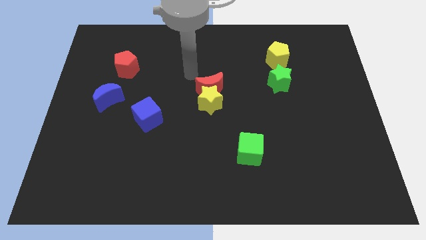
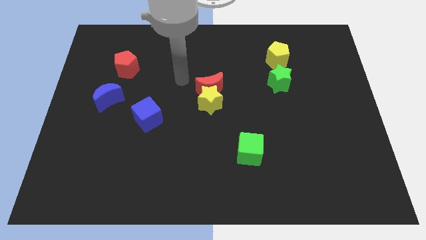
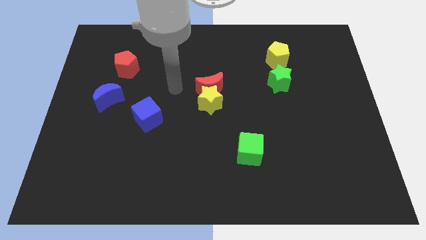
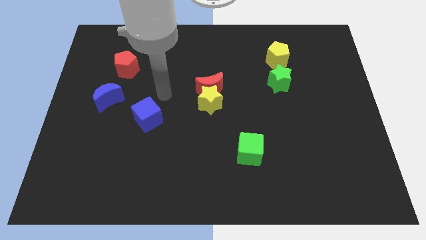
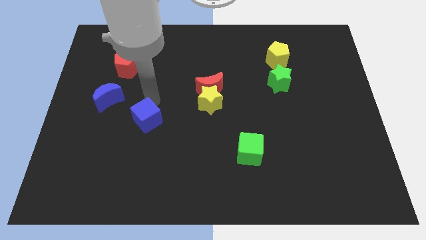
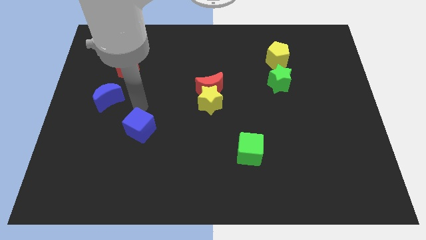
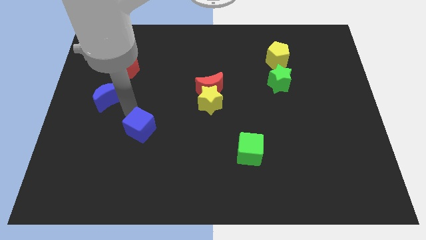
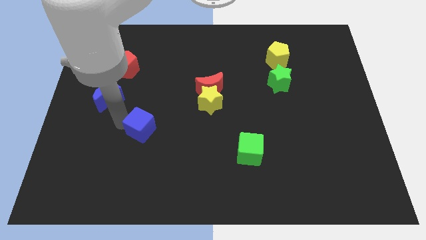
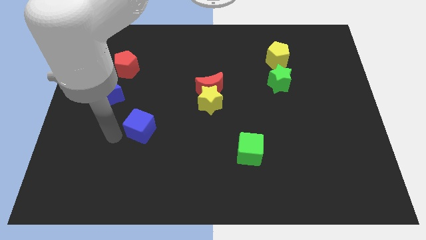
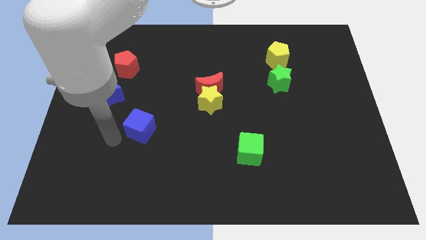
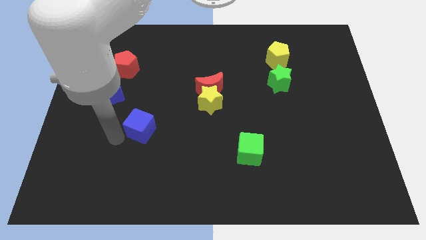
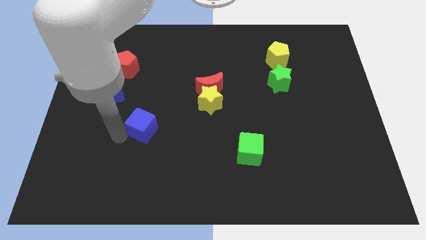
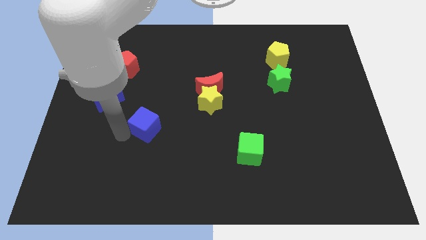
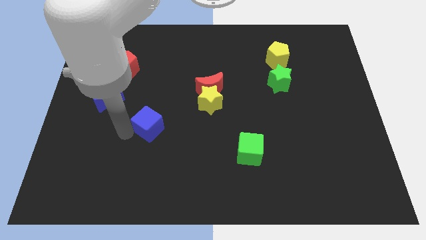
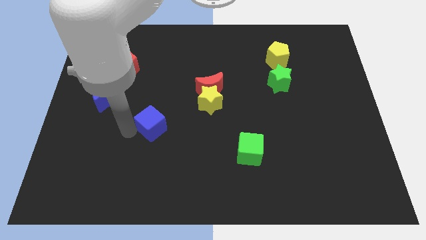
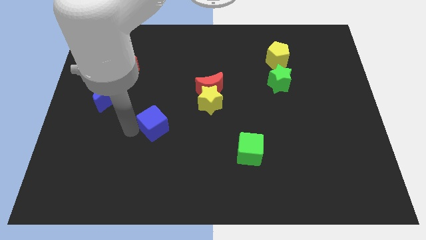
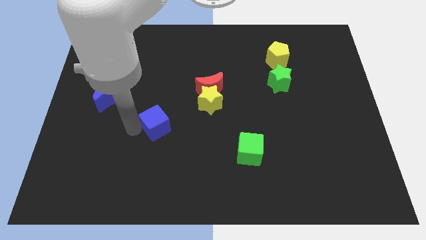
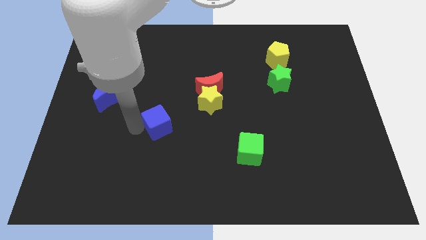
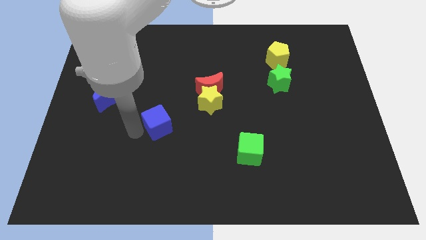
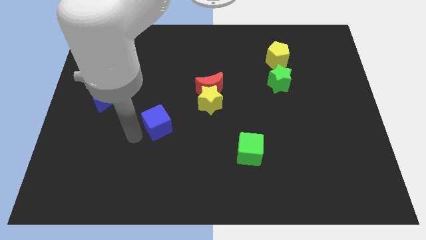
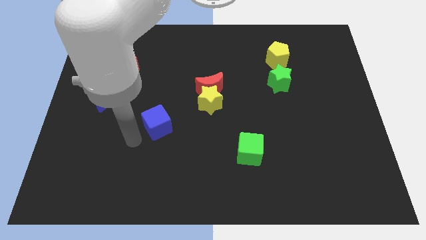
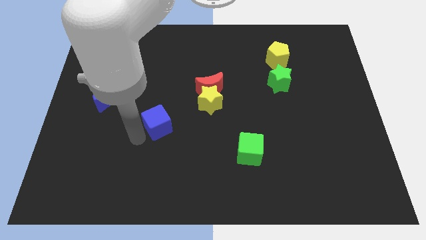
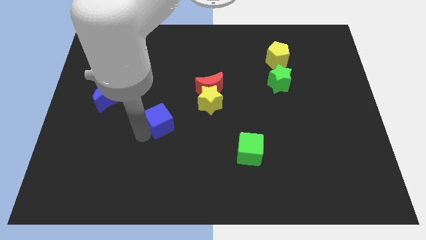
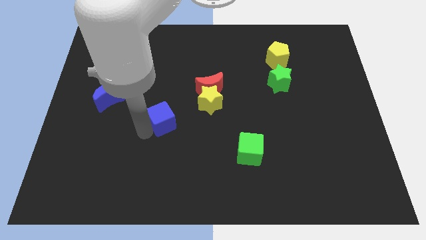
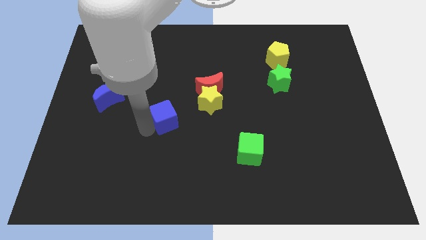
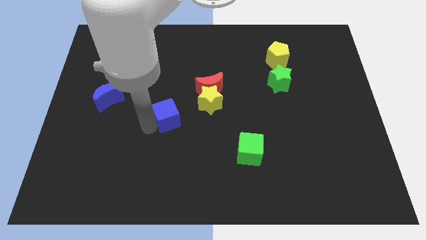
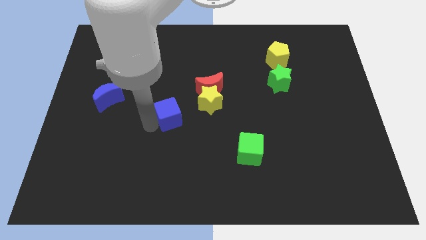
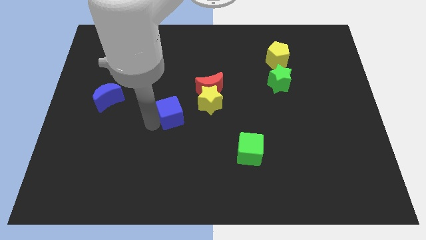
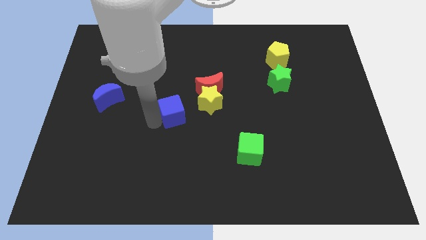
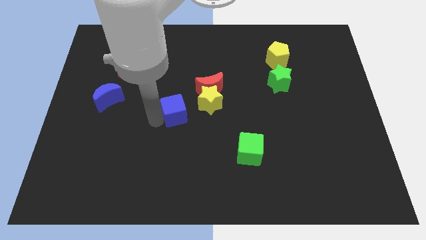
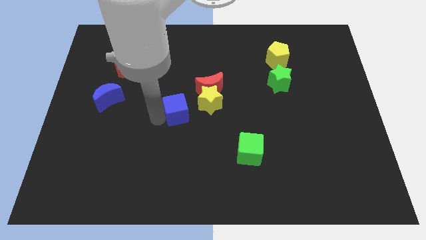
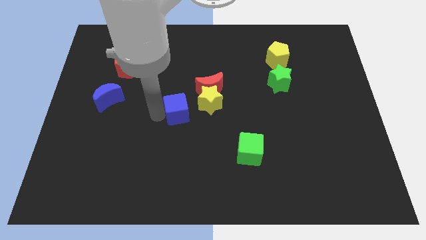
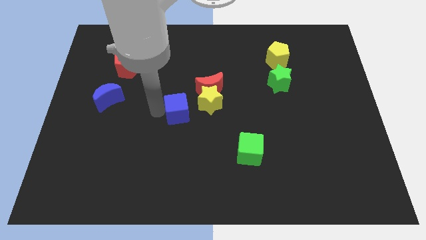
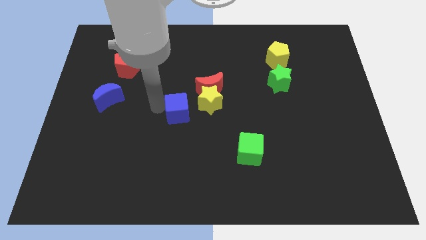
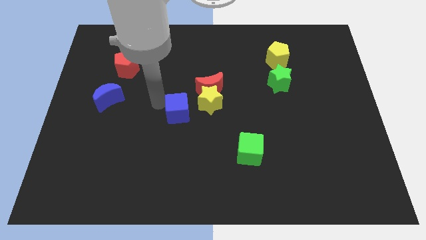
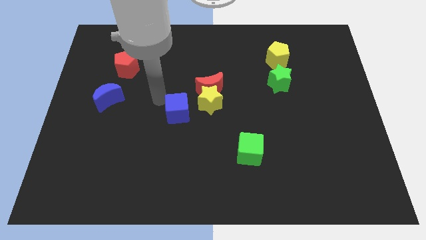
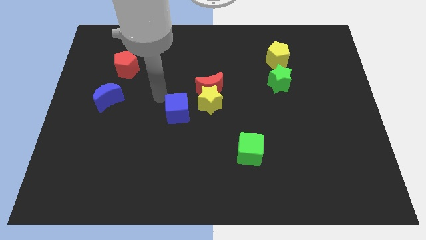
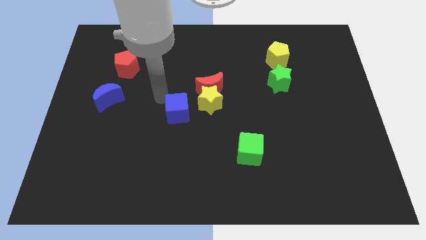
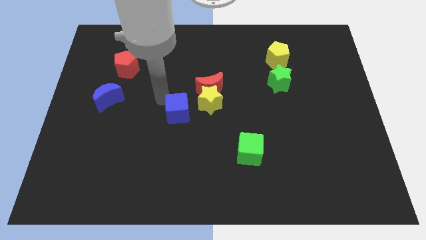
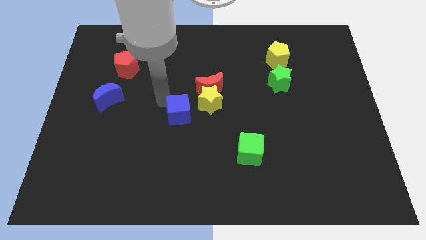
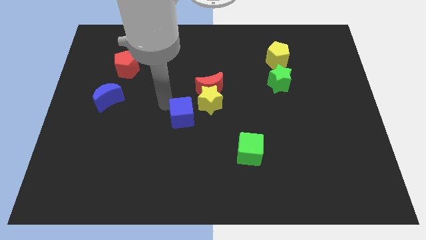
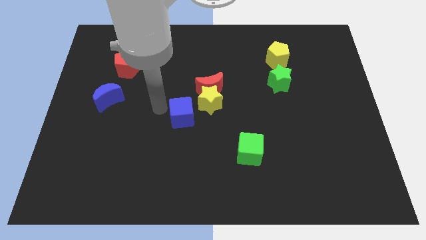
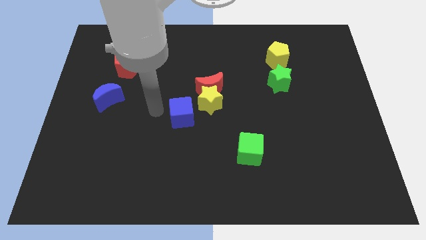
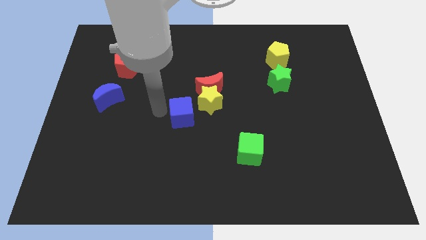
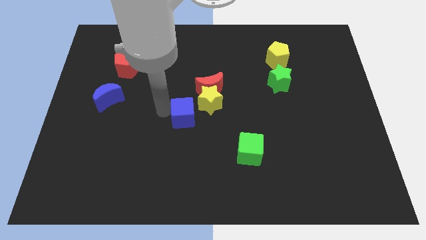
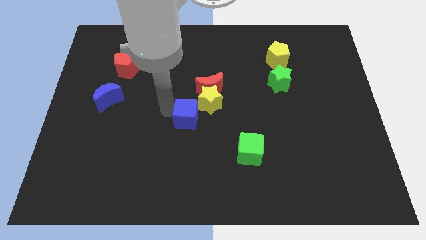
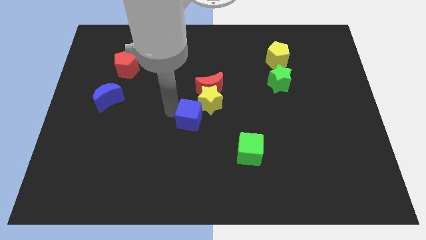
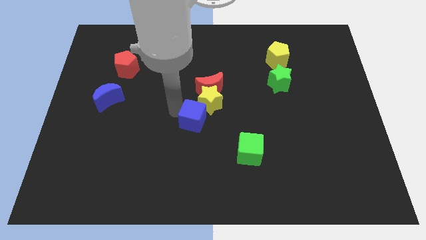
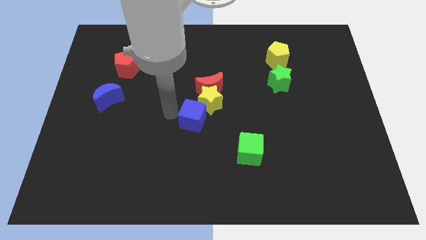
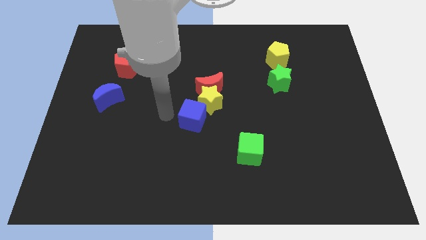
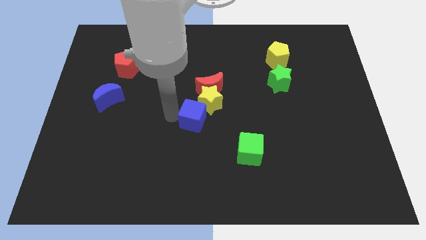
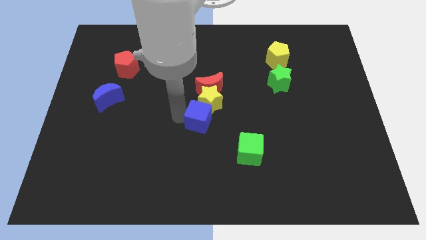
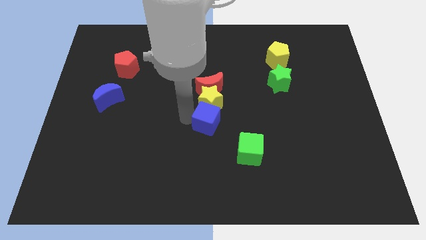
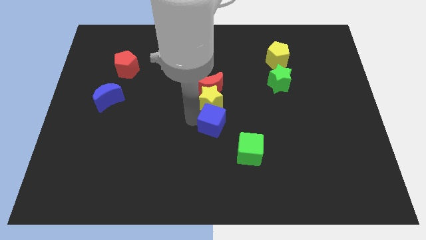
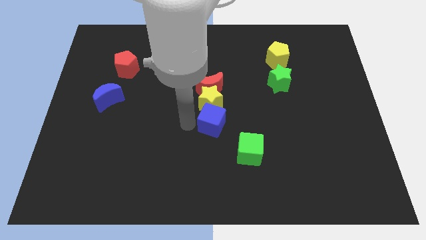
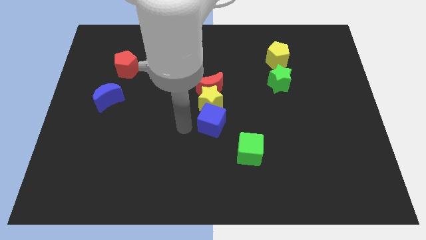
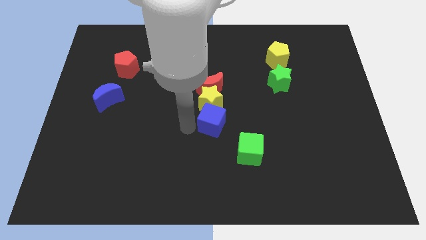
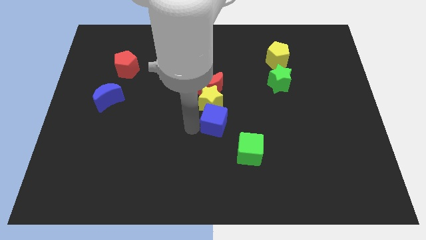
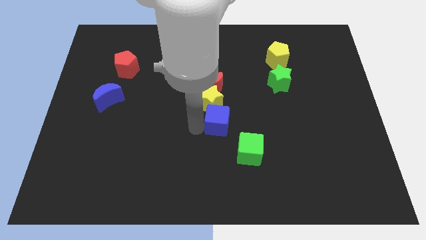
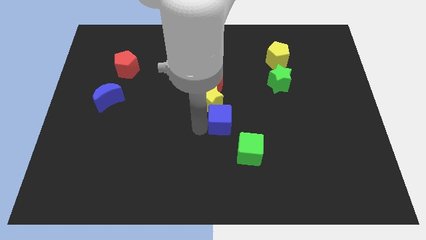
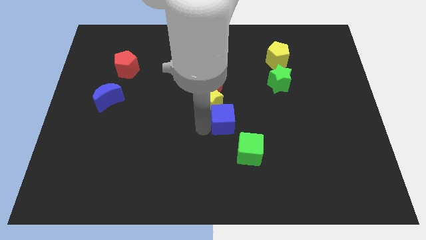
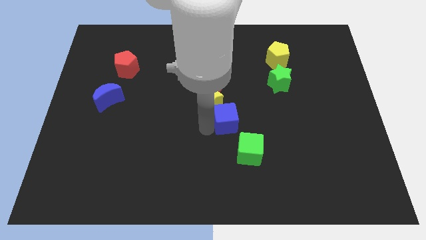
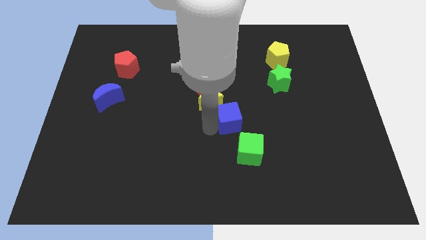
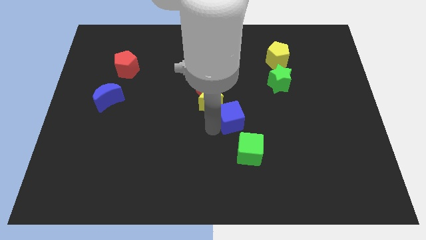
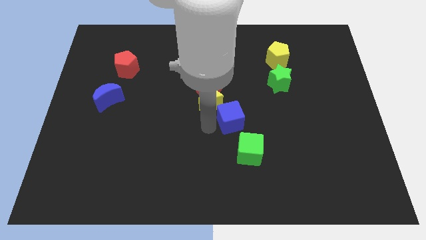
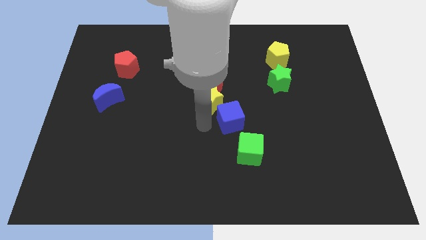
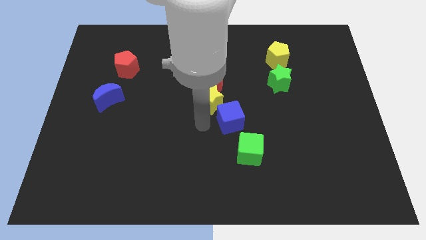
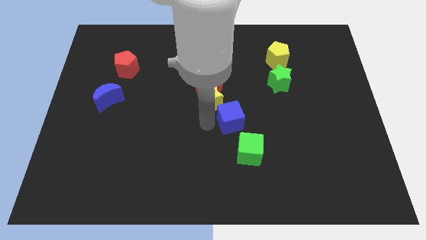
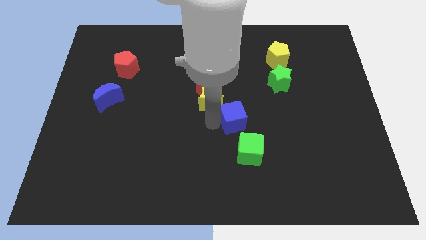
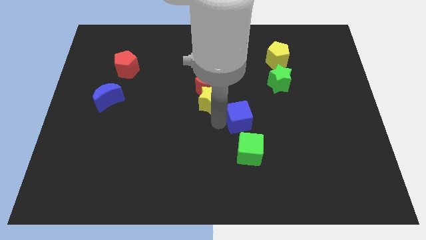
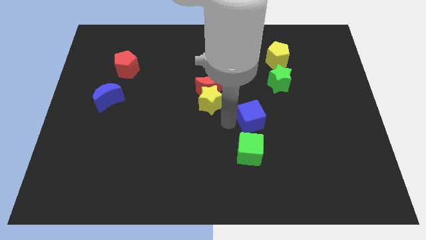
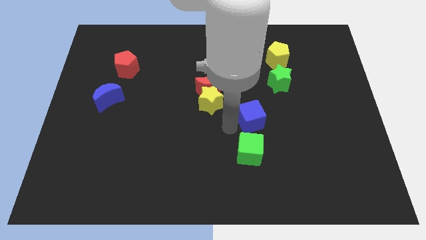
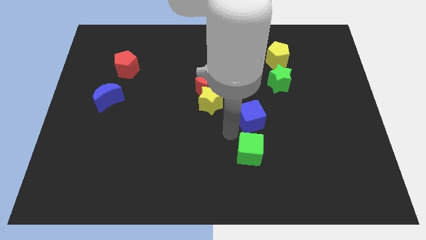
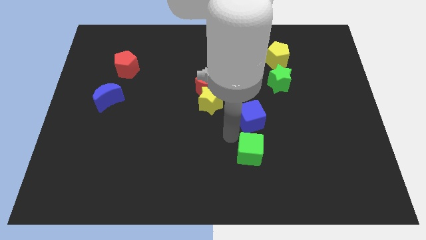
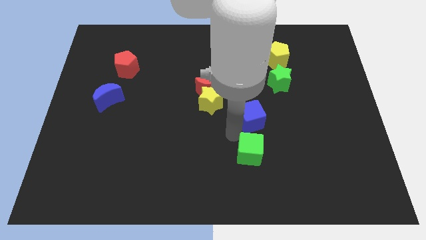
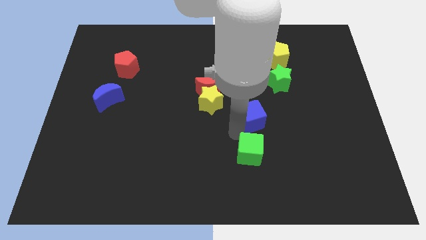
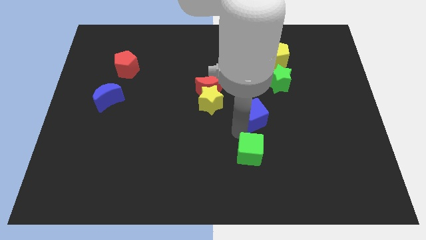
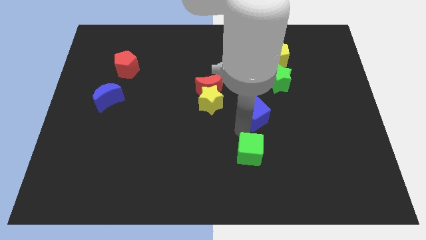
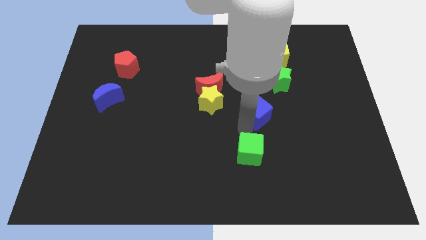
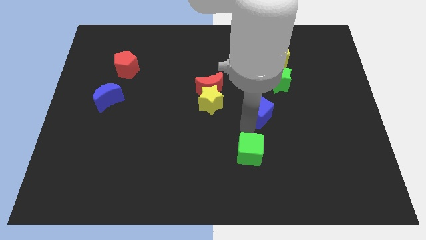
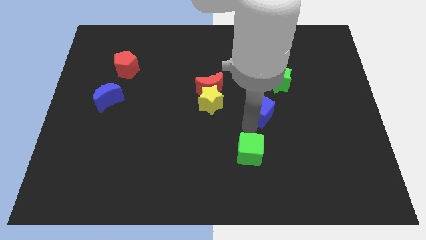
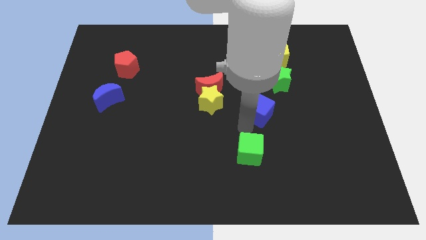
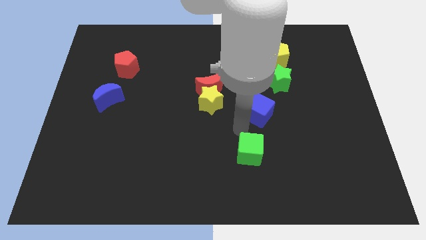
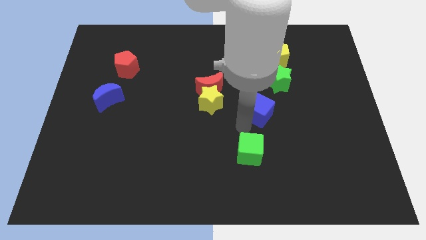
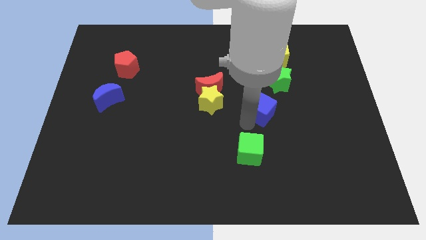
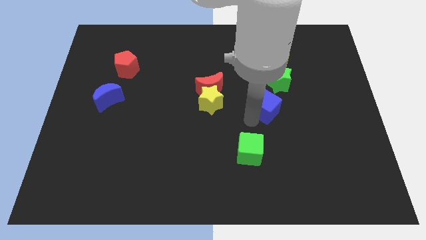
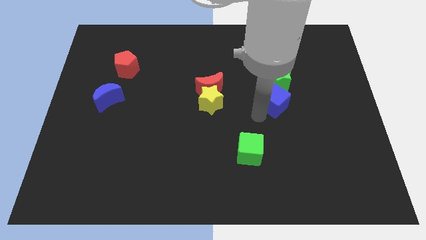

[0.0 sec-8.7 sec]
put the blue cube to the bottom of the yellow pentagon
